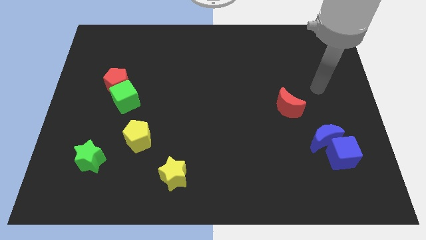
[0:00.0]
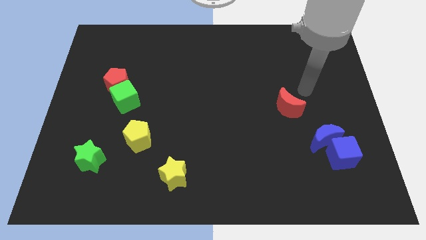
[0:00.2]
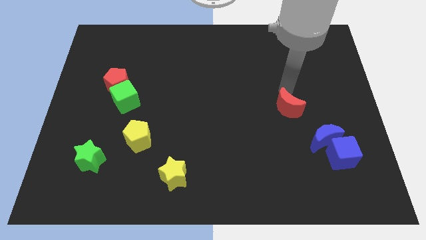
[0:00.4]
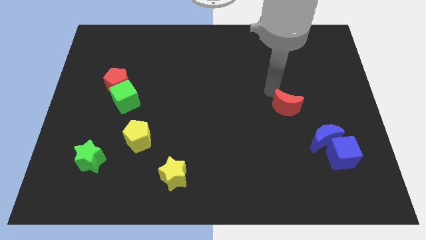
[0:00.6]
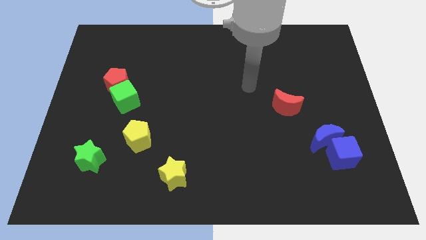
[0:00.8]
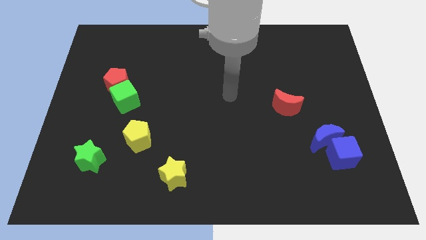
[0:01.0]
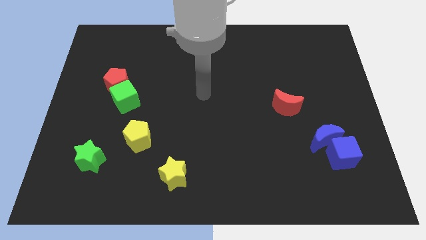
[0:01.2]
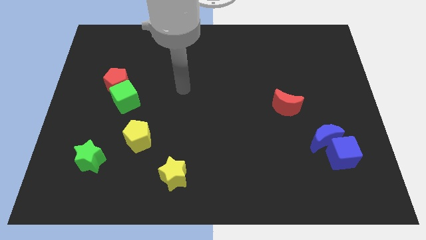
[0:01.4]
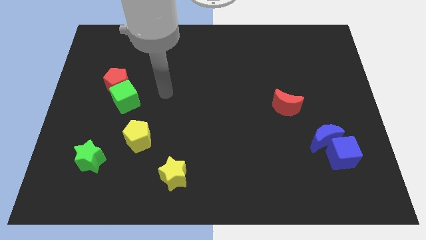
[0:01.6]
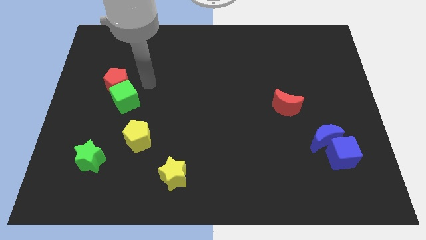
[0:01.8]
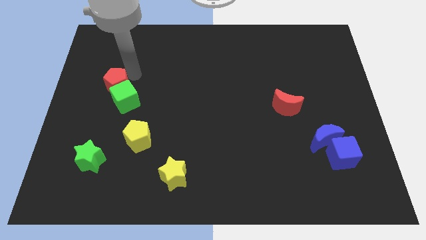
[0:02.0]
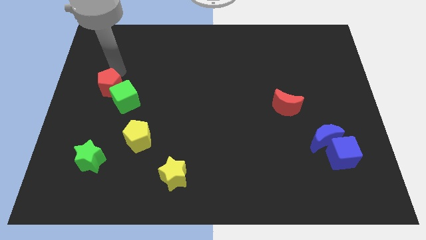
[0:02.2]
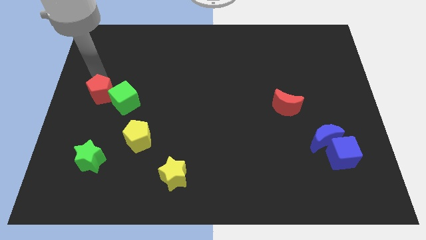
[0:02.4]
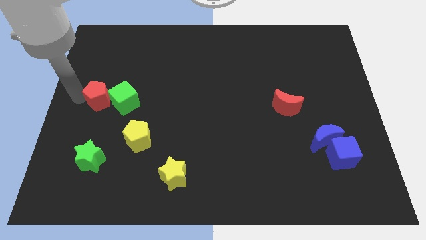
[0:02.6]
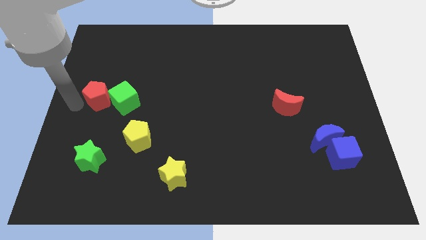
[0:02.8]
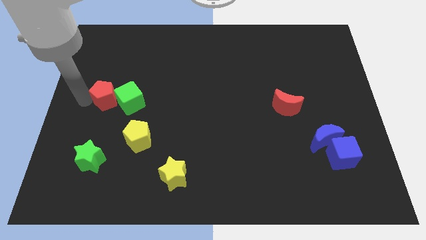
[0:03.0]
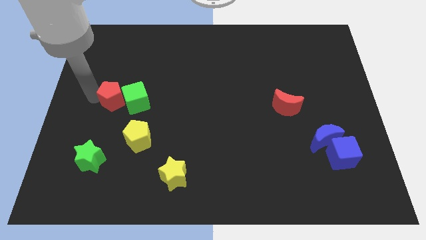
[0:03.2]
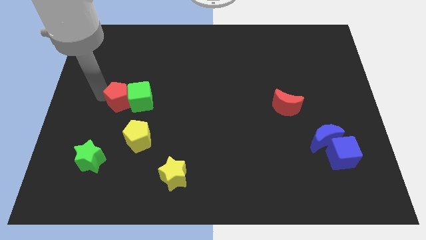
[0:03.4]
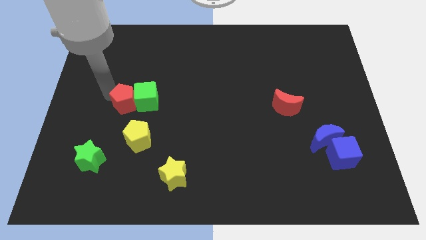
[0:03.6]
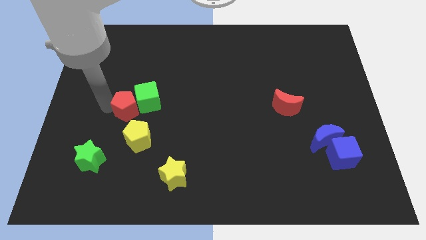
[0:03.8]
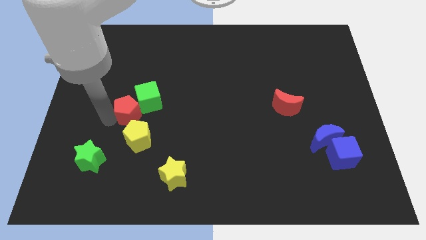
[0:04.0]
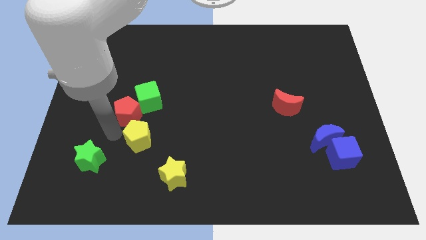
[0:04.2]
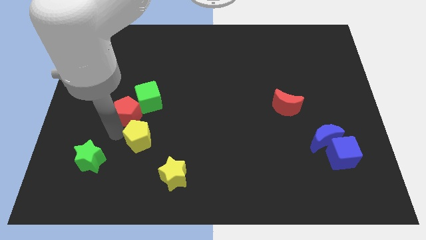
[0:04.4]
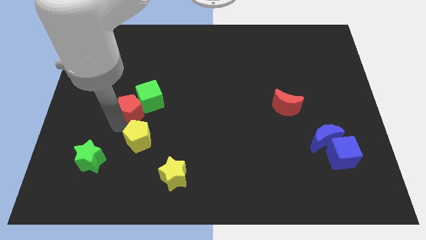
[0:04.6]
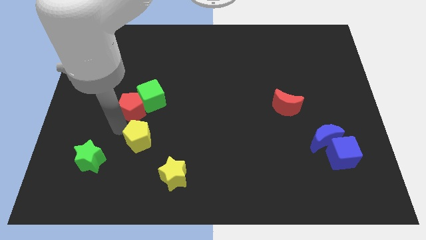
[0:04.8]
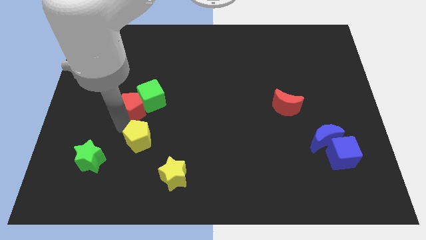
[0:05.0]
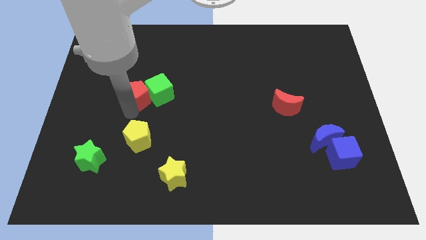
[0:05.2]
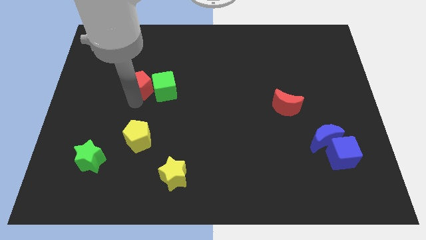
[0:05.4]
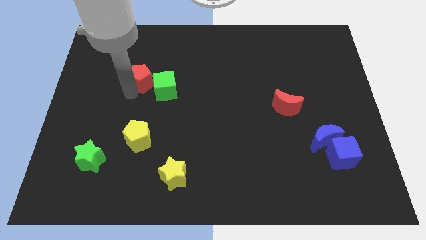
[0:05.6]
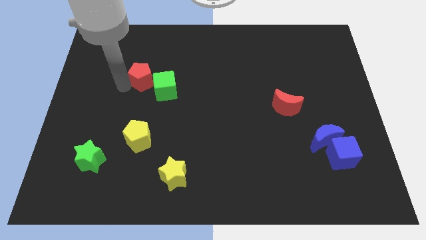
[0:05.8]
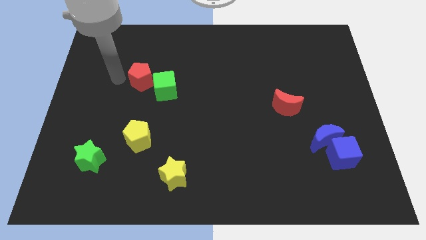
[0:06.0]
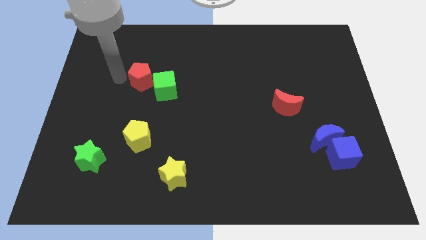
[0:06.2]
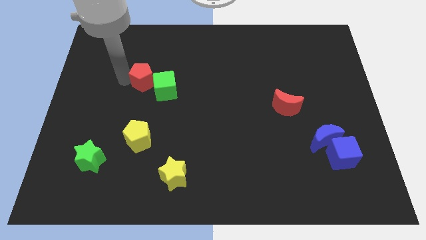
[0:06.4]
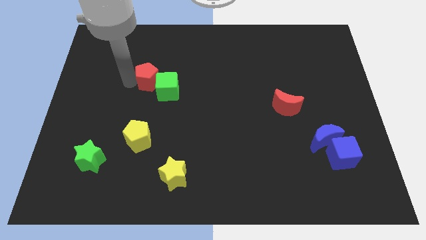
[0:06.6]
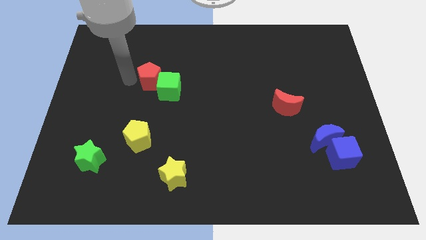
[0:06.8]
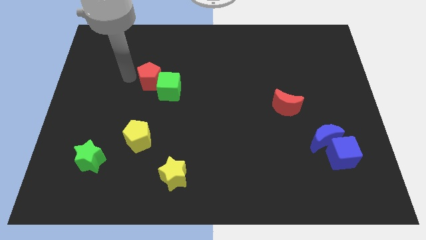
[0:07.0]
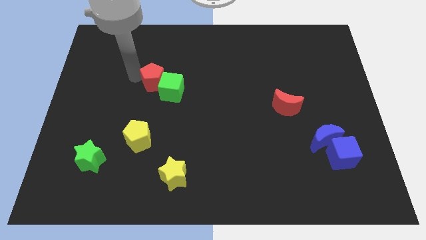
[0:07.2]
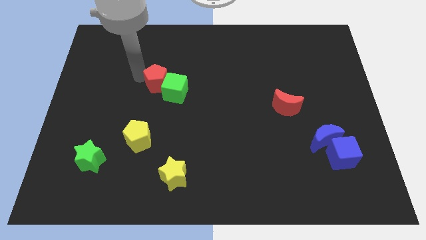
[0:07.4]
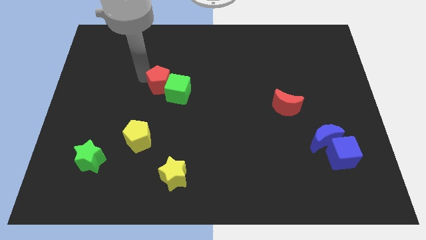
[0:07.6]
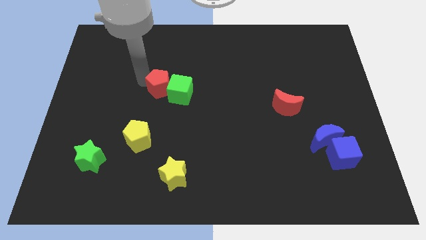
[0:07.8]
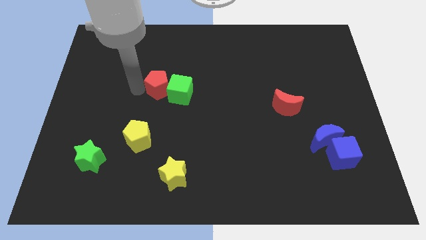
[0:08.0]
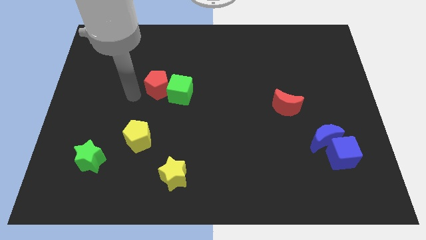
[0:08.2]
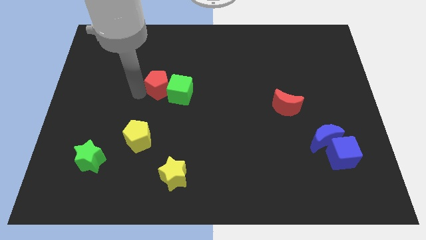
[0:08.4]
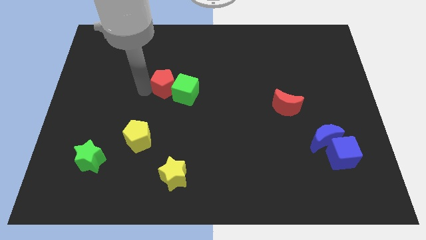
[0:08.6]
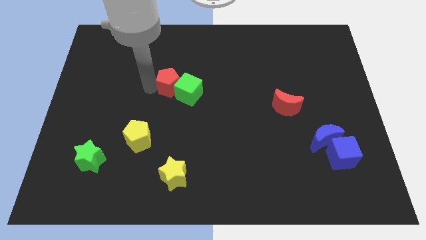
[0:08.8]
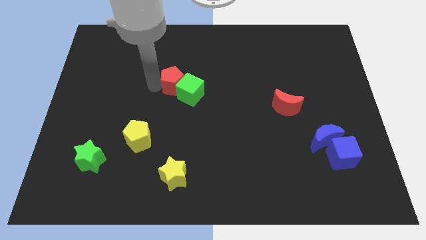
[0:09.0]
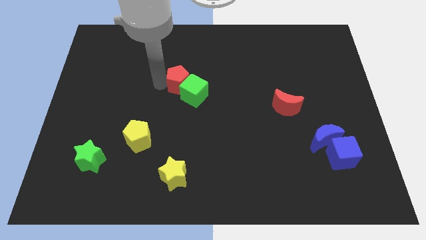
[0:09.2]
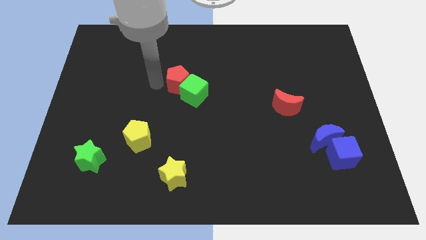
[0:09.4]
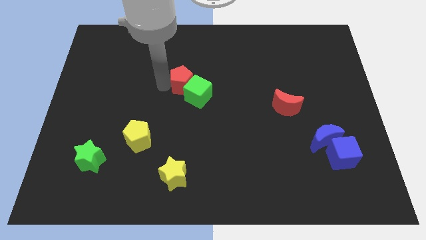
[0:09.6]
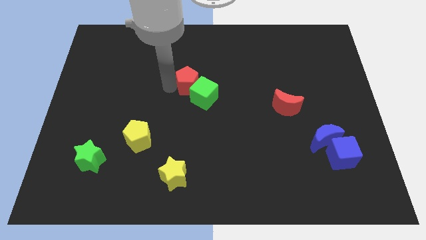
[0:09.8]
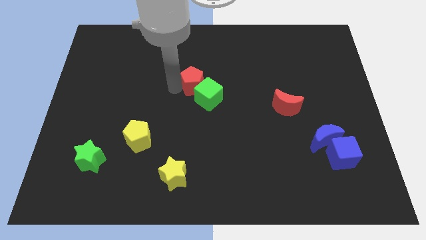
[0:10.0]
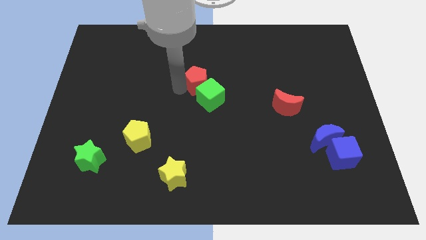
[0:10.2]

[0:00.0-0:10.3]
slide the red pentagon to the right

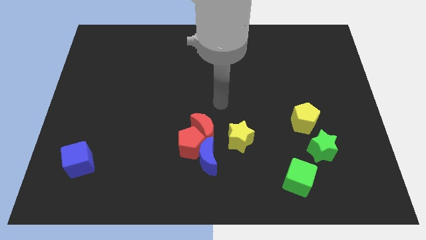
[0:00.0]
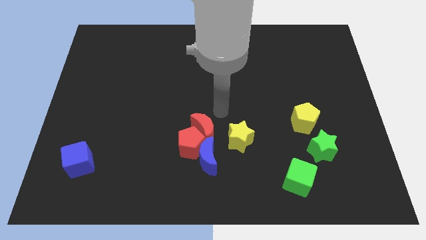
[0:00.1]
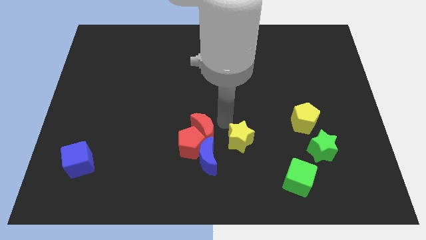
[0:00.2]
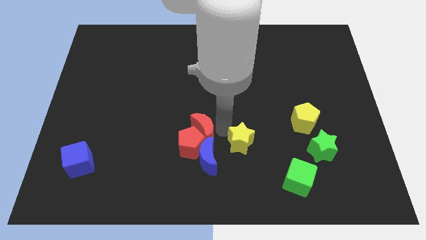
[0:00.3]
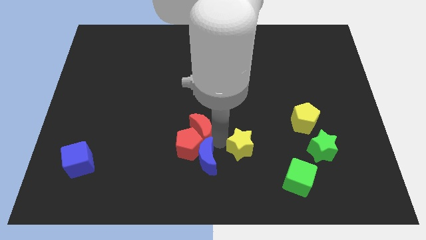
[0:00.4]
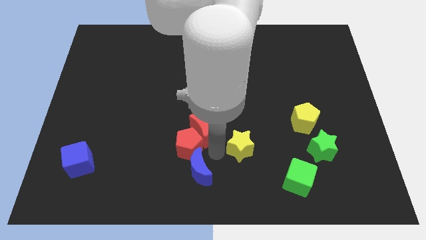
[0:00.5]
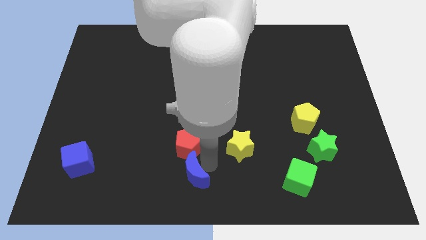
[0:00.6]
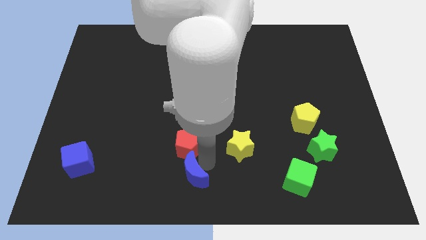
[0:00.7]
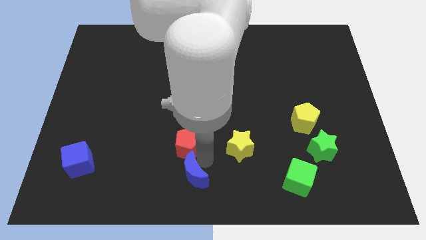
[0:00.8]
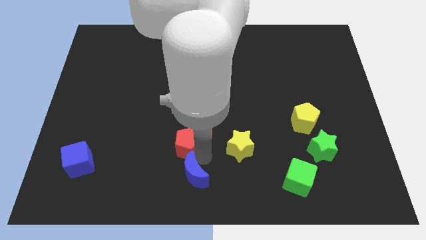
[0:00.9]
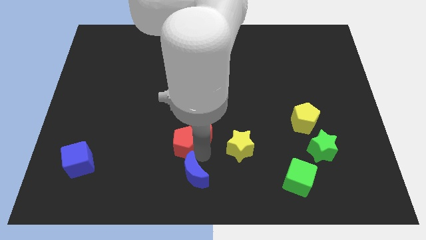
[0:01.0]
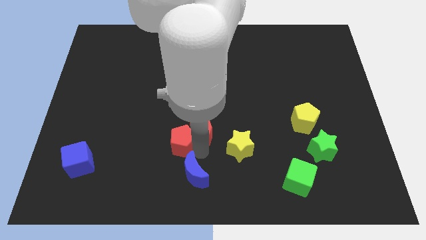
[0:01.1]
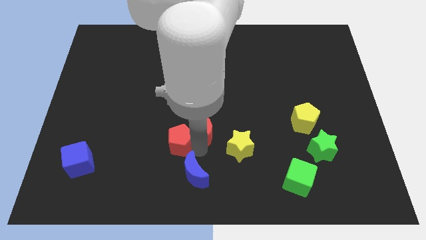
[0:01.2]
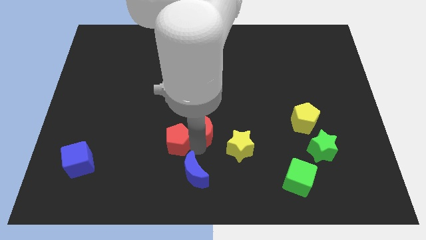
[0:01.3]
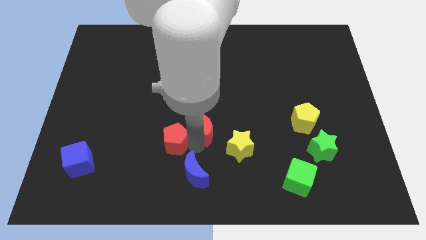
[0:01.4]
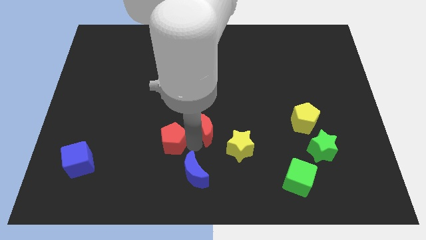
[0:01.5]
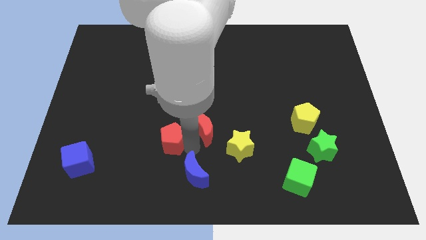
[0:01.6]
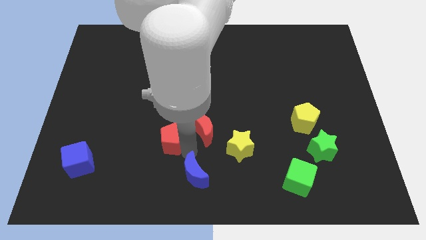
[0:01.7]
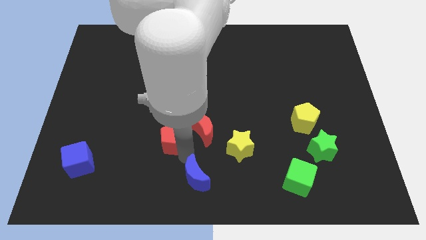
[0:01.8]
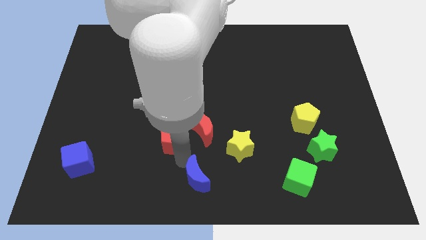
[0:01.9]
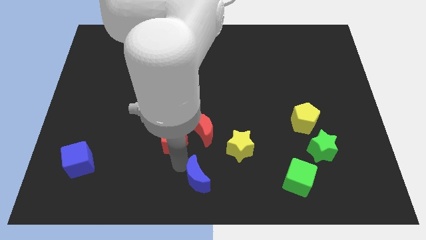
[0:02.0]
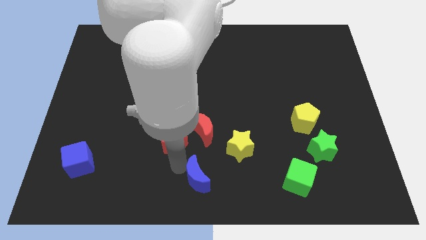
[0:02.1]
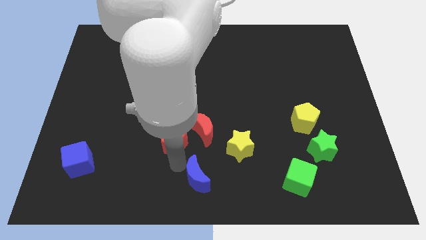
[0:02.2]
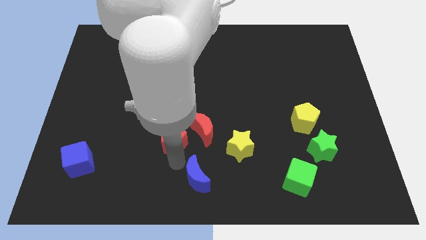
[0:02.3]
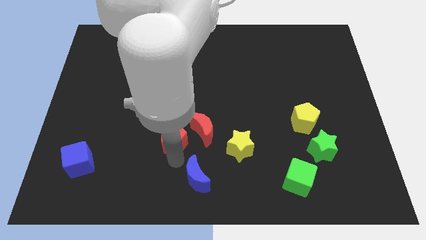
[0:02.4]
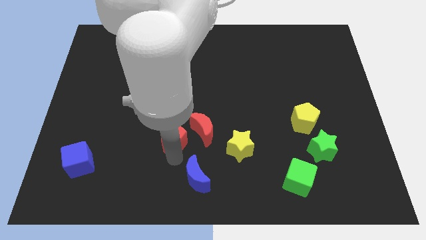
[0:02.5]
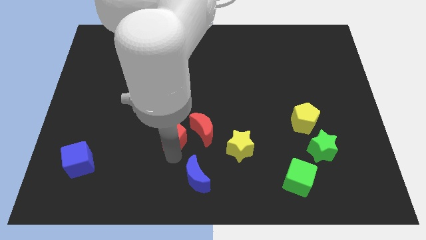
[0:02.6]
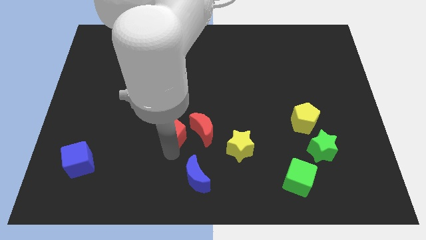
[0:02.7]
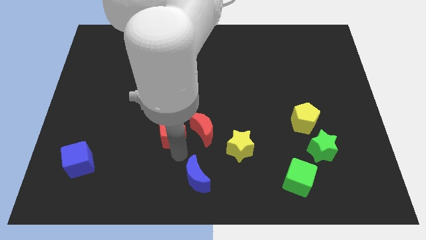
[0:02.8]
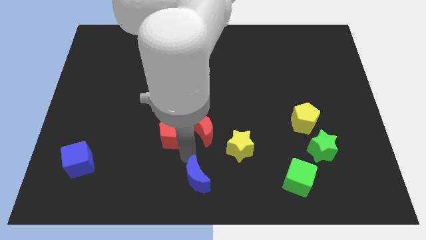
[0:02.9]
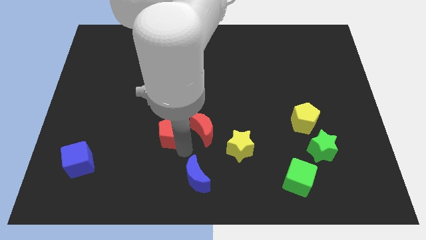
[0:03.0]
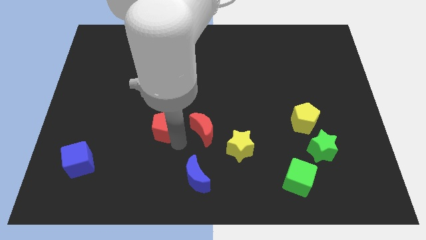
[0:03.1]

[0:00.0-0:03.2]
push the red pentagon up and to the left diagonally a bit
